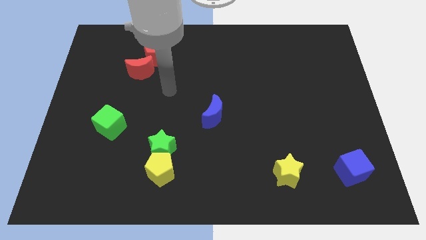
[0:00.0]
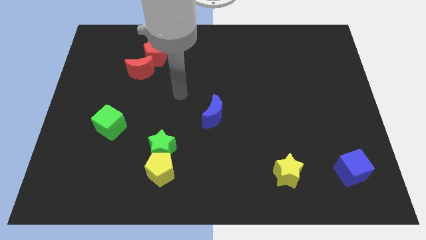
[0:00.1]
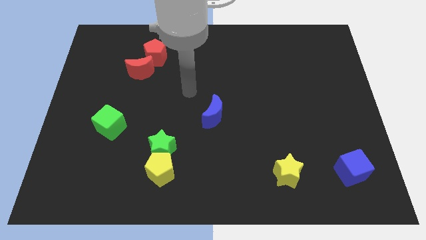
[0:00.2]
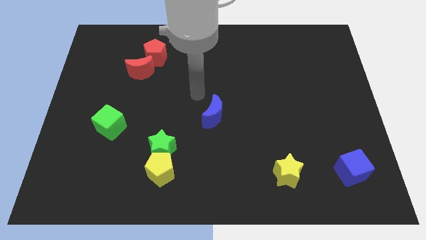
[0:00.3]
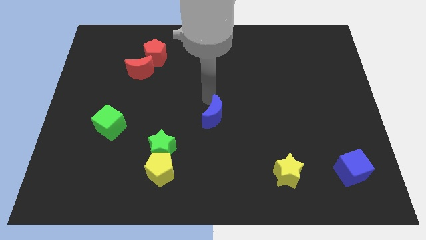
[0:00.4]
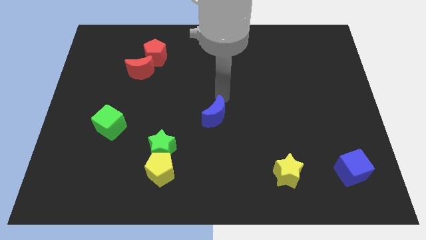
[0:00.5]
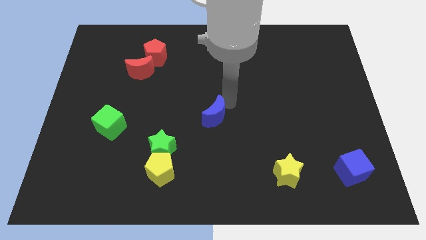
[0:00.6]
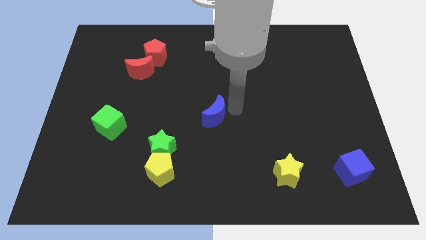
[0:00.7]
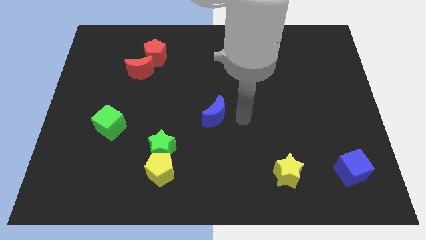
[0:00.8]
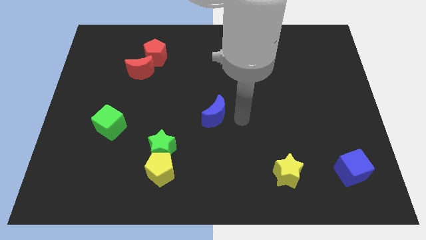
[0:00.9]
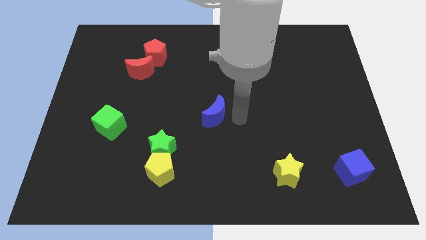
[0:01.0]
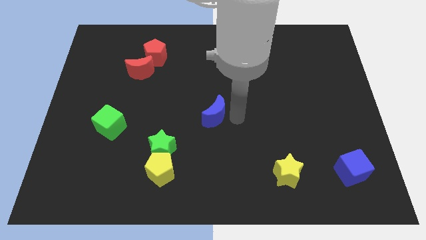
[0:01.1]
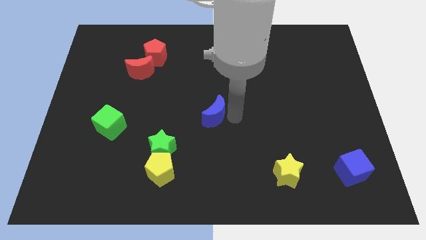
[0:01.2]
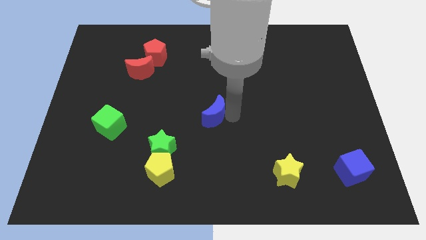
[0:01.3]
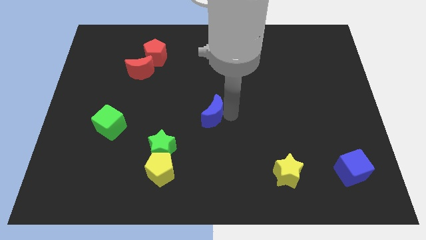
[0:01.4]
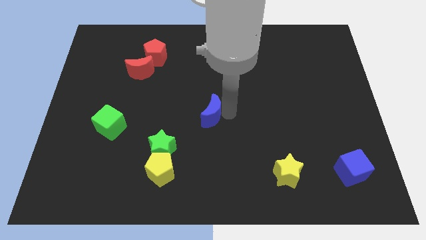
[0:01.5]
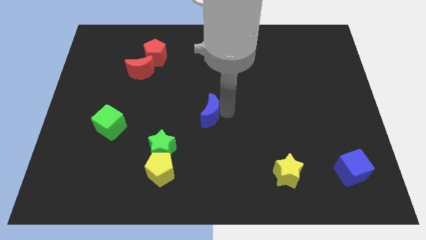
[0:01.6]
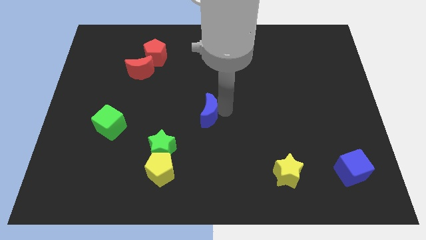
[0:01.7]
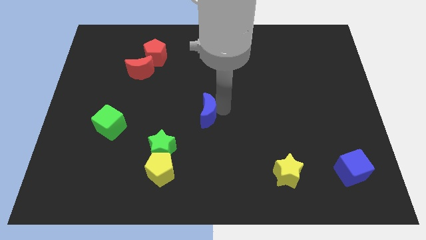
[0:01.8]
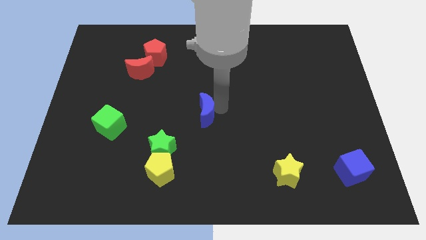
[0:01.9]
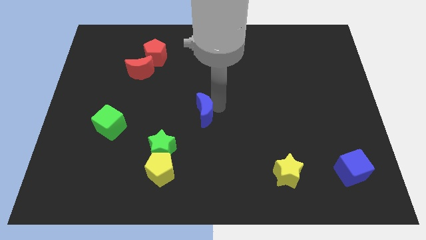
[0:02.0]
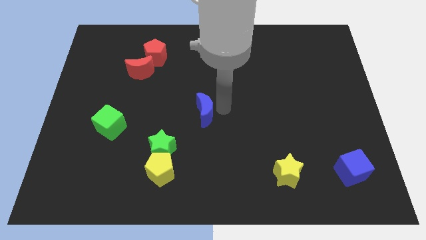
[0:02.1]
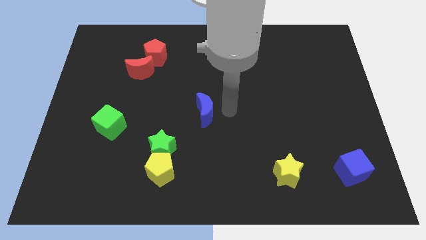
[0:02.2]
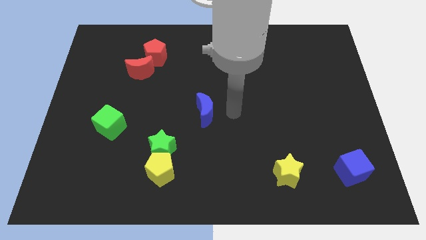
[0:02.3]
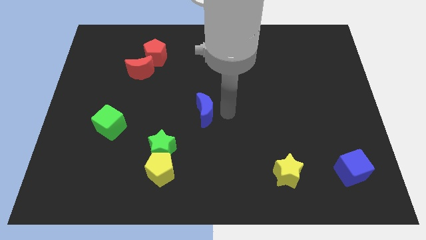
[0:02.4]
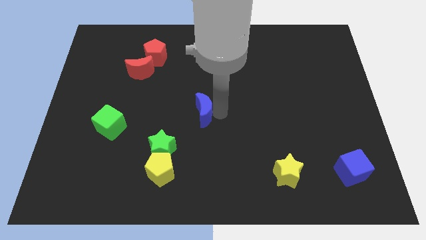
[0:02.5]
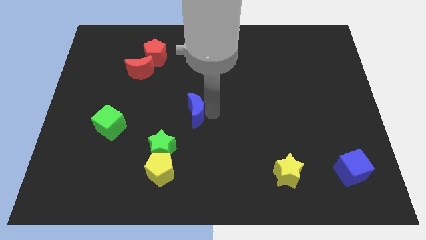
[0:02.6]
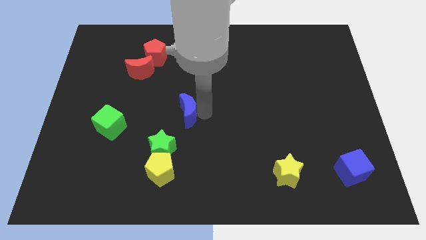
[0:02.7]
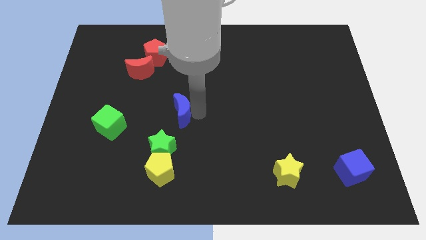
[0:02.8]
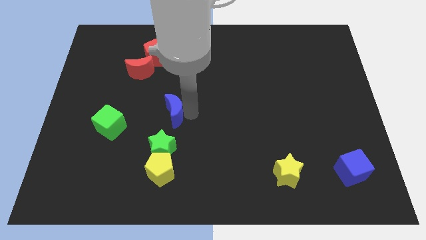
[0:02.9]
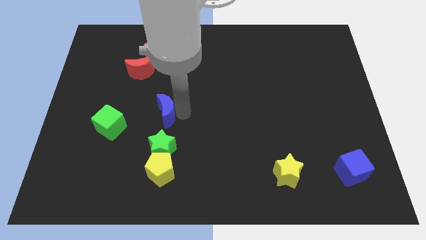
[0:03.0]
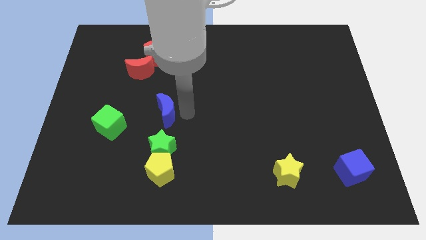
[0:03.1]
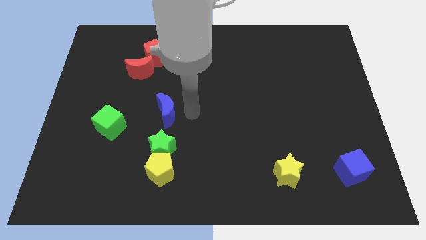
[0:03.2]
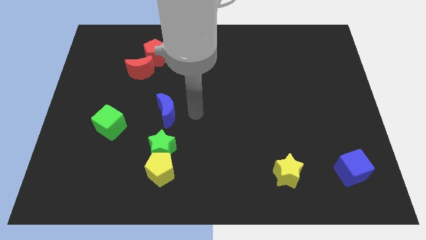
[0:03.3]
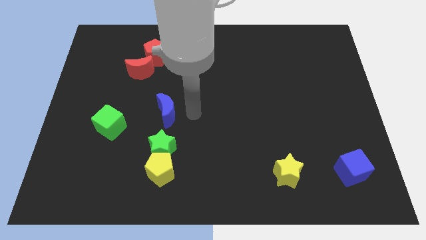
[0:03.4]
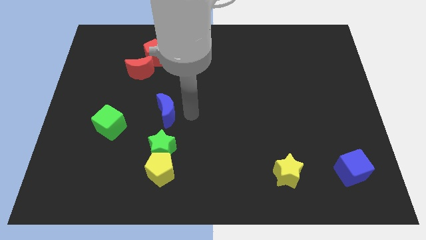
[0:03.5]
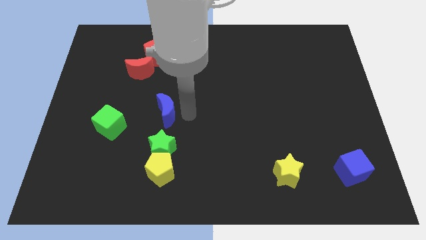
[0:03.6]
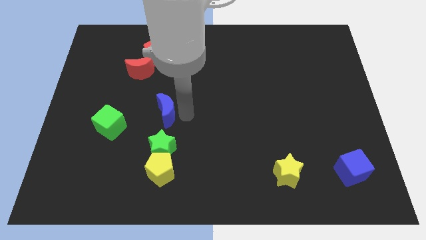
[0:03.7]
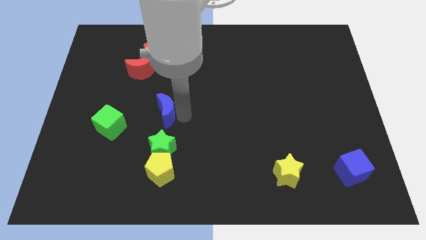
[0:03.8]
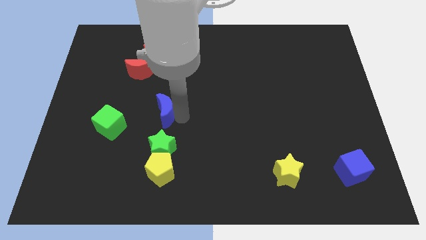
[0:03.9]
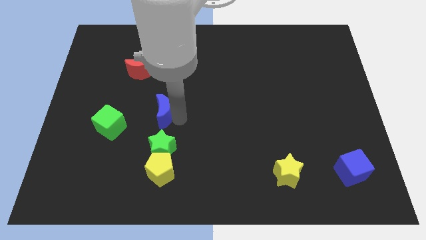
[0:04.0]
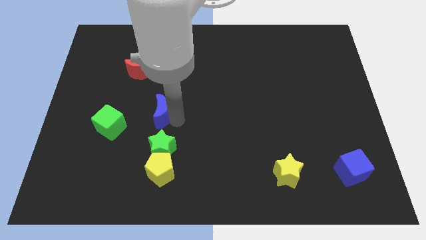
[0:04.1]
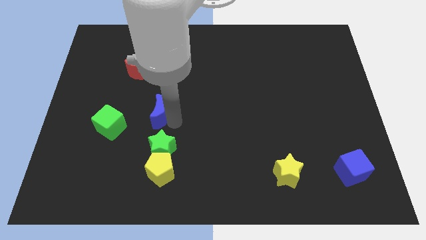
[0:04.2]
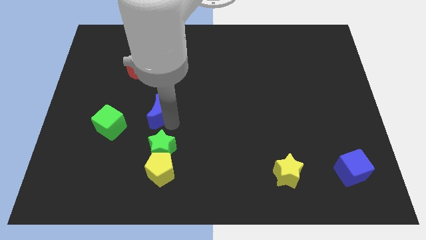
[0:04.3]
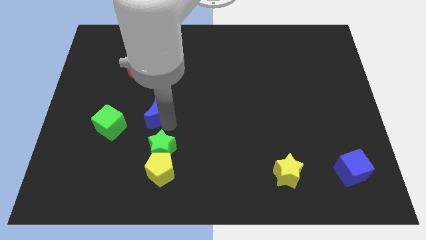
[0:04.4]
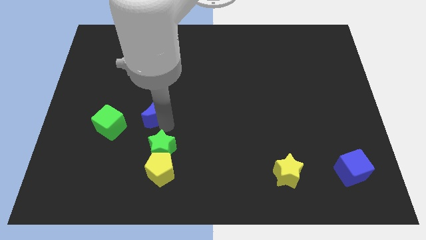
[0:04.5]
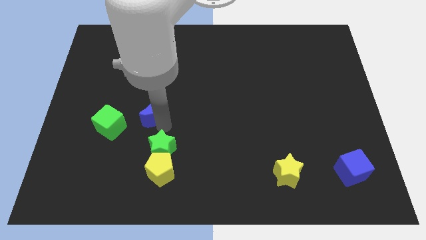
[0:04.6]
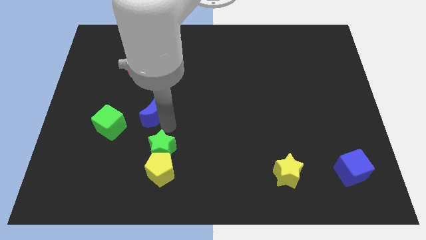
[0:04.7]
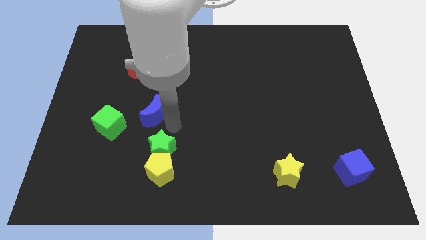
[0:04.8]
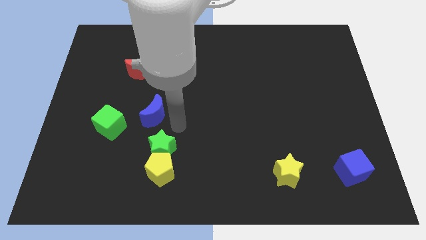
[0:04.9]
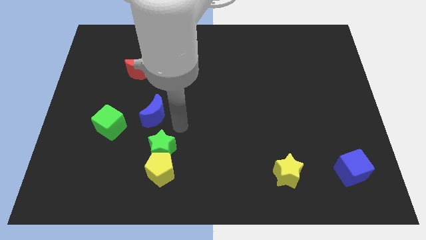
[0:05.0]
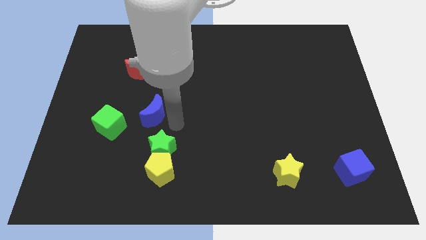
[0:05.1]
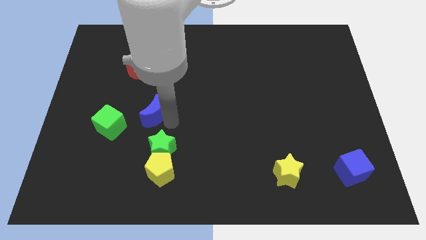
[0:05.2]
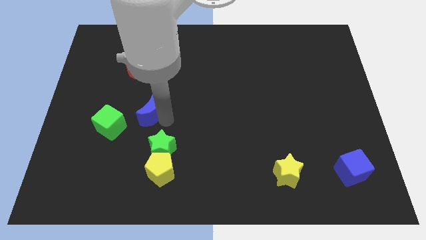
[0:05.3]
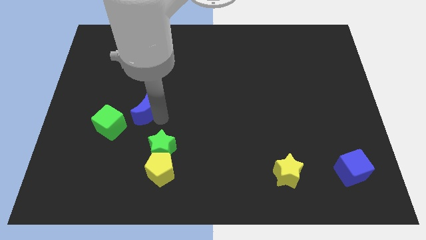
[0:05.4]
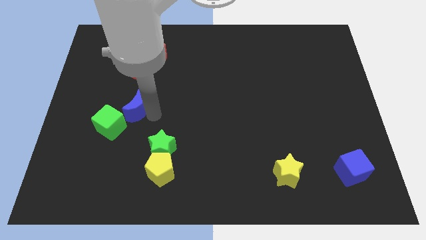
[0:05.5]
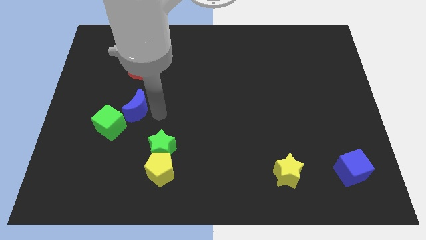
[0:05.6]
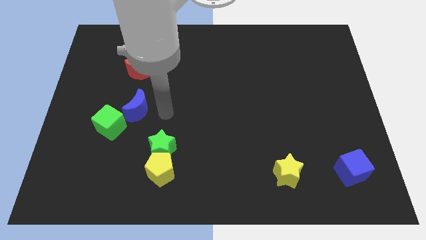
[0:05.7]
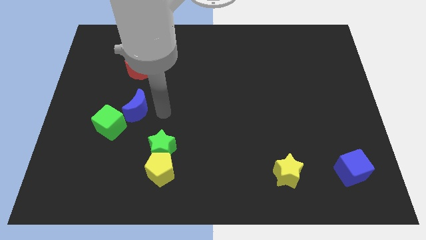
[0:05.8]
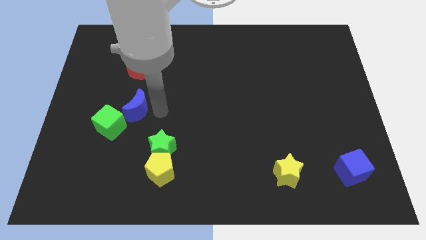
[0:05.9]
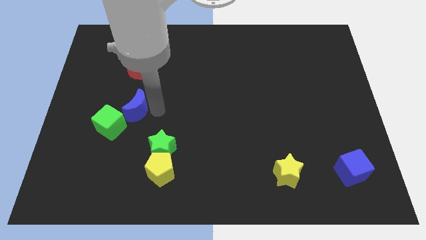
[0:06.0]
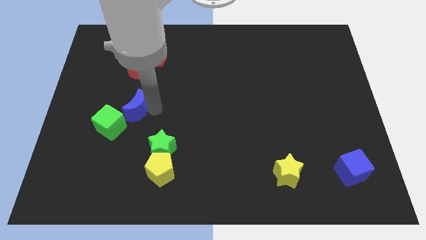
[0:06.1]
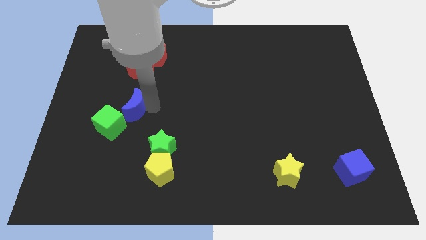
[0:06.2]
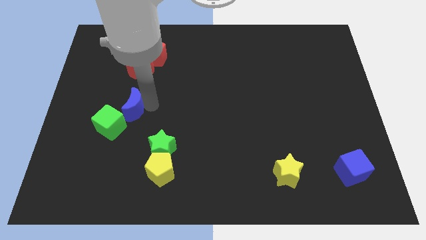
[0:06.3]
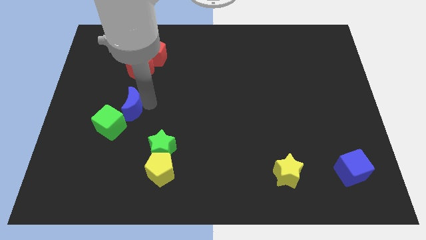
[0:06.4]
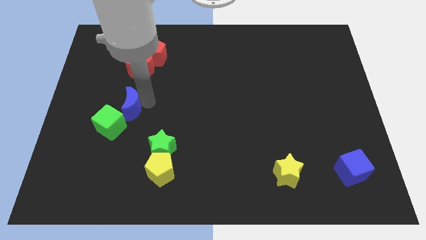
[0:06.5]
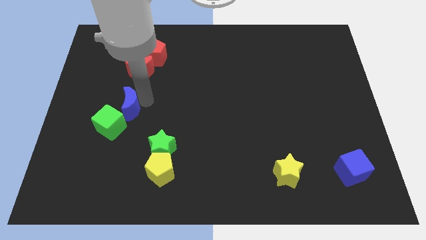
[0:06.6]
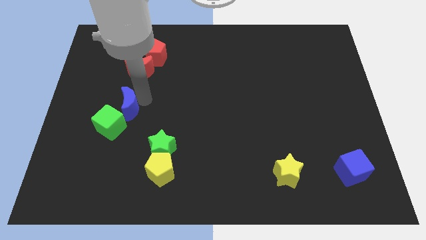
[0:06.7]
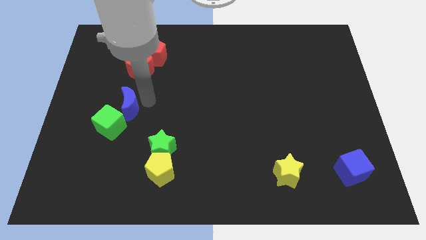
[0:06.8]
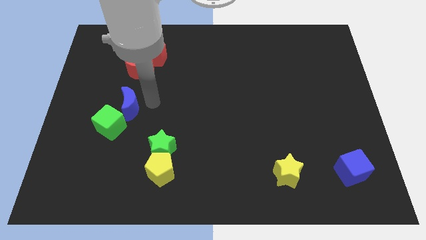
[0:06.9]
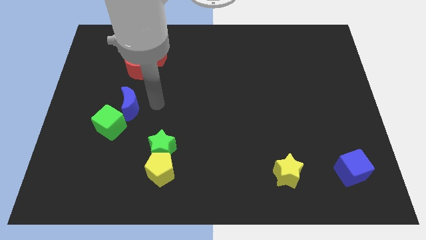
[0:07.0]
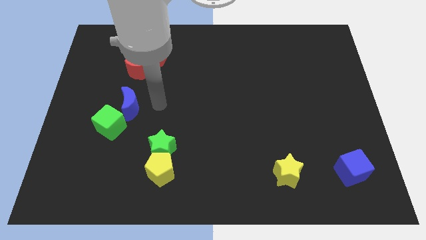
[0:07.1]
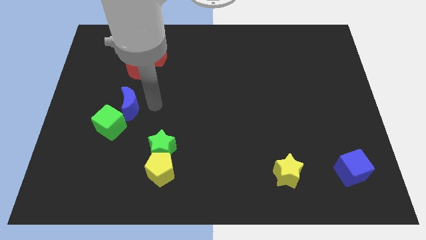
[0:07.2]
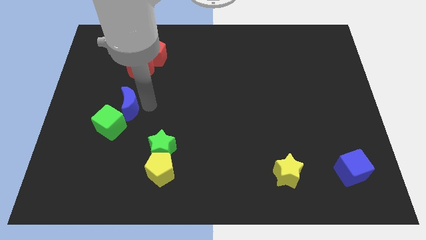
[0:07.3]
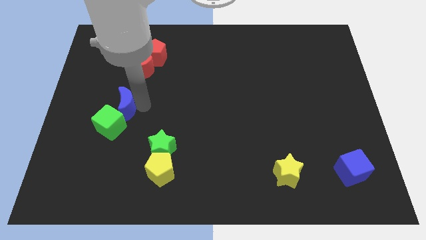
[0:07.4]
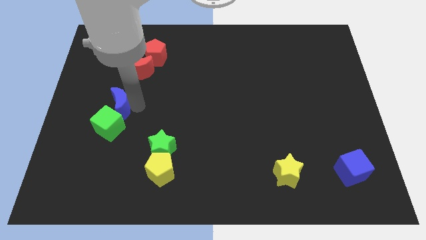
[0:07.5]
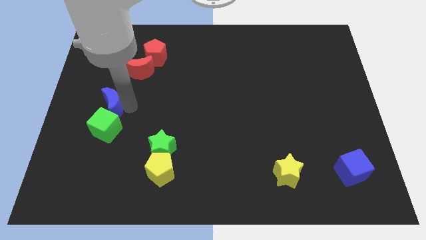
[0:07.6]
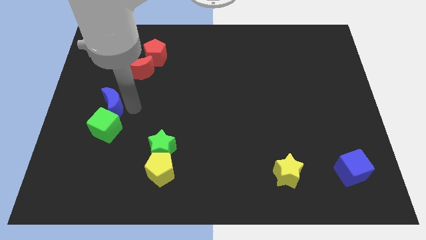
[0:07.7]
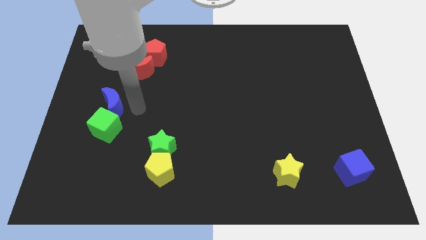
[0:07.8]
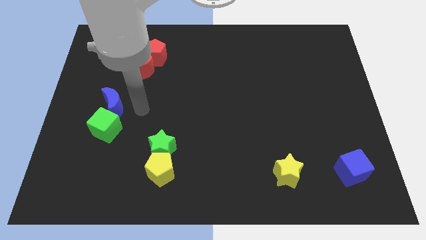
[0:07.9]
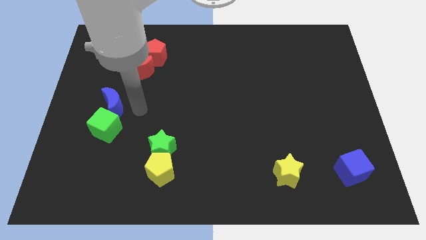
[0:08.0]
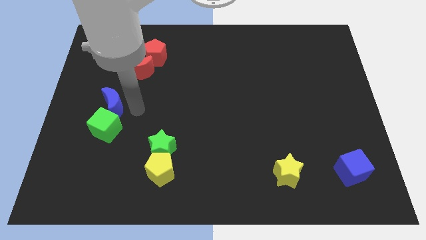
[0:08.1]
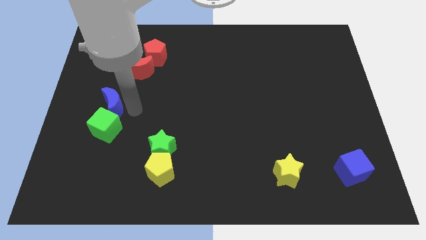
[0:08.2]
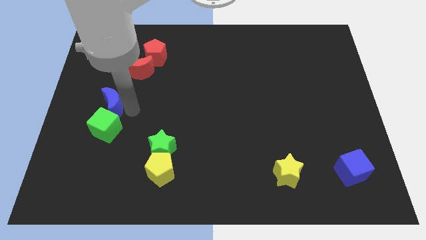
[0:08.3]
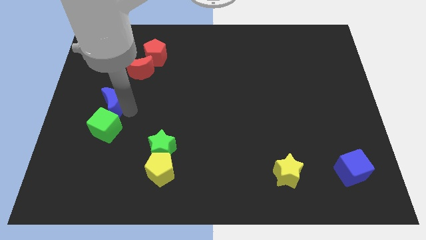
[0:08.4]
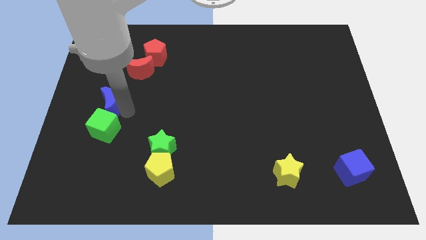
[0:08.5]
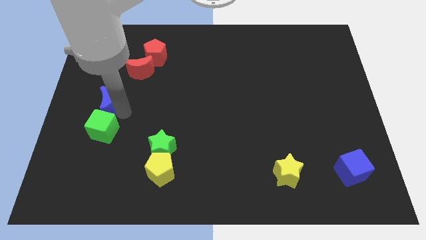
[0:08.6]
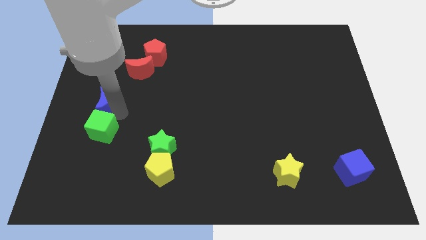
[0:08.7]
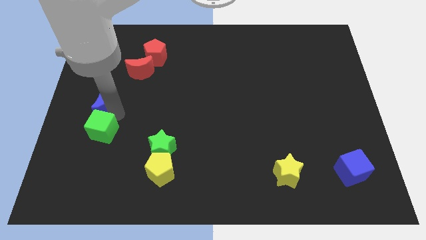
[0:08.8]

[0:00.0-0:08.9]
put the blue moon to the center left
